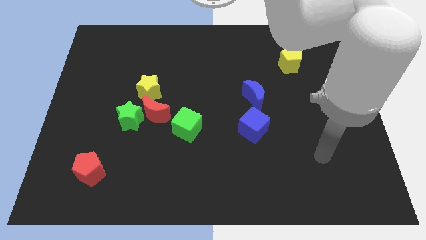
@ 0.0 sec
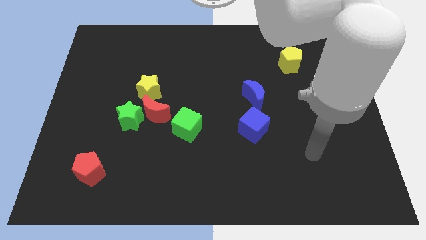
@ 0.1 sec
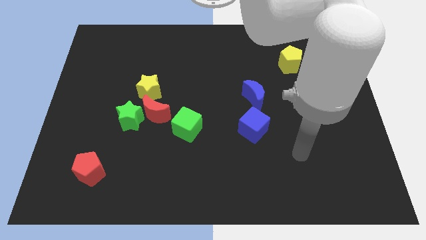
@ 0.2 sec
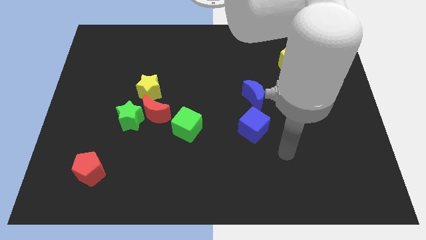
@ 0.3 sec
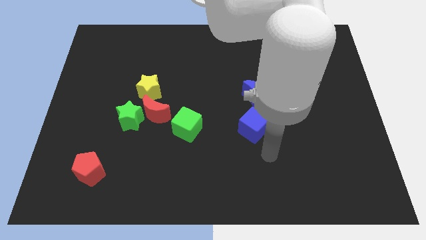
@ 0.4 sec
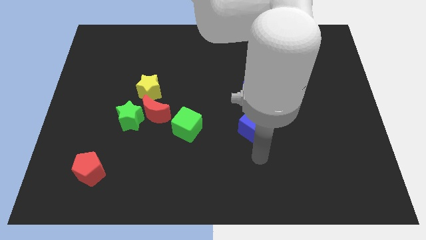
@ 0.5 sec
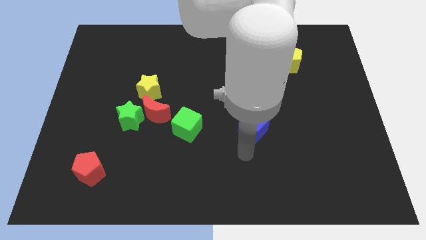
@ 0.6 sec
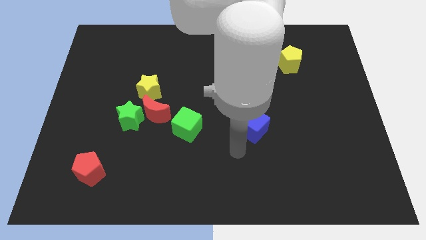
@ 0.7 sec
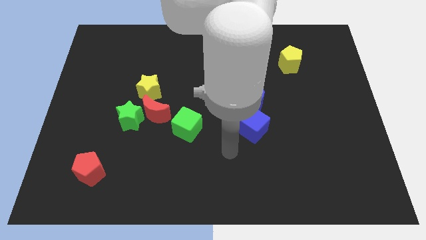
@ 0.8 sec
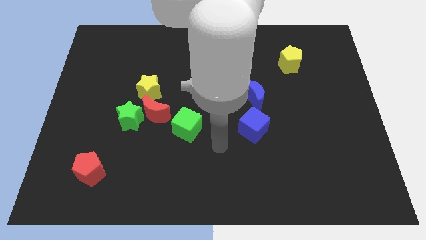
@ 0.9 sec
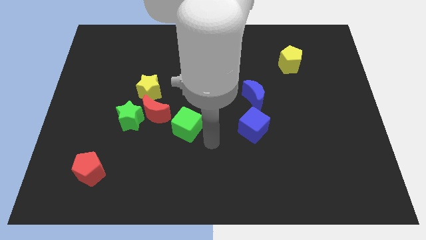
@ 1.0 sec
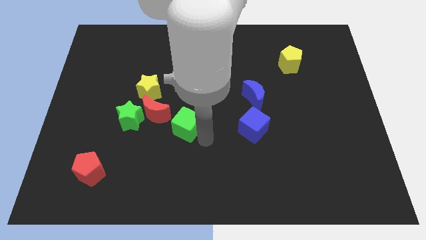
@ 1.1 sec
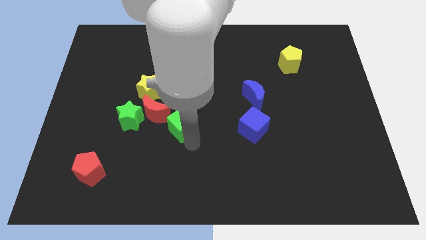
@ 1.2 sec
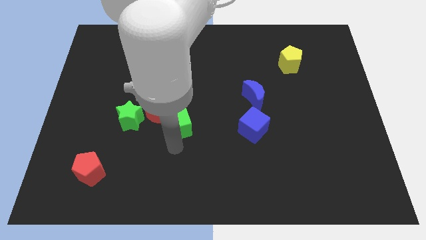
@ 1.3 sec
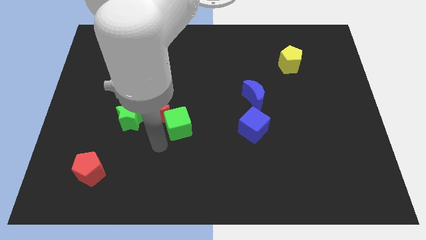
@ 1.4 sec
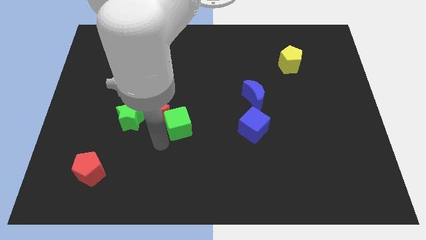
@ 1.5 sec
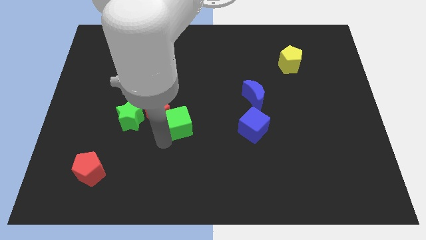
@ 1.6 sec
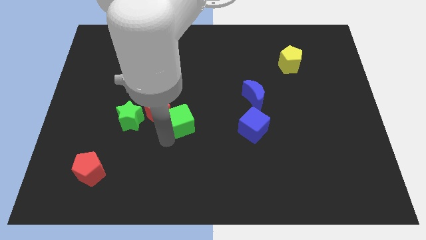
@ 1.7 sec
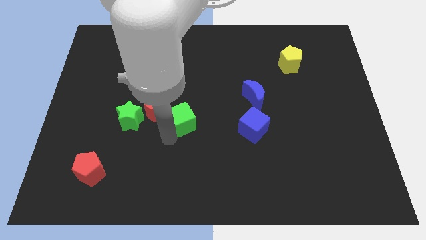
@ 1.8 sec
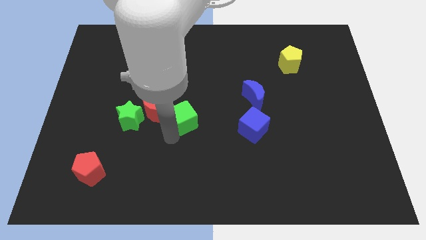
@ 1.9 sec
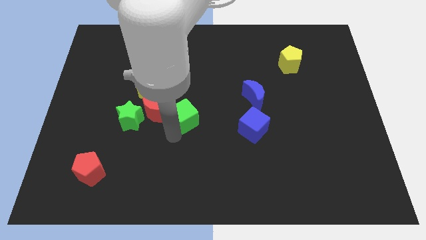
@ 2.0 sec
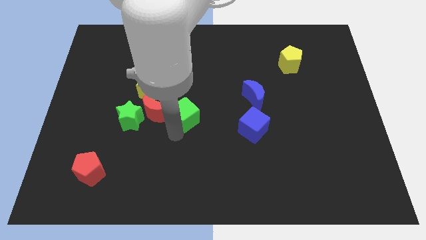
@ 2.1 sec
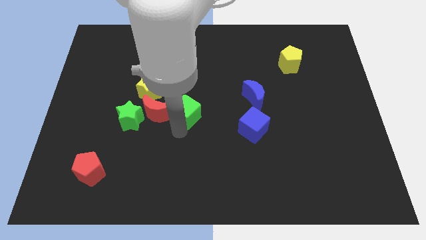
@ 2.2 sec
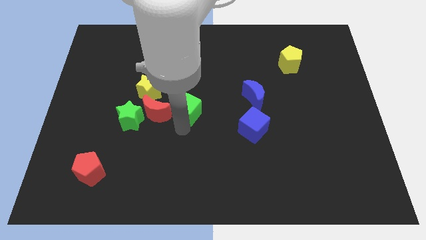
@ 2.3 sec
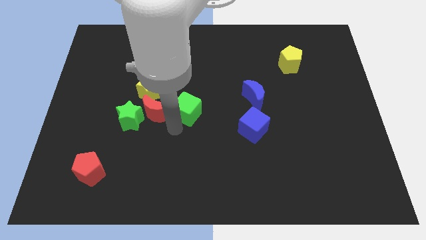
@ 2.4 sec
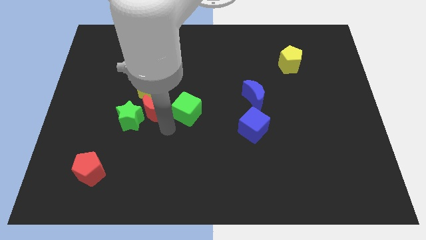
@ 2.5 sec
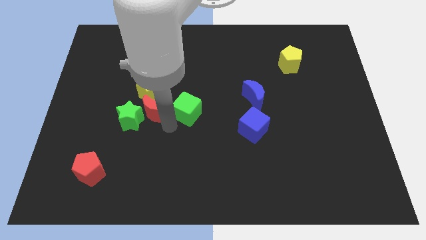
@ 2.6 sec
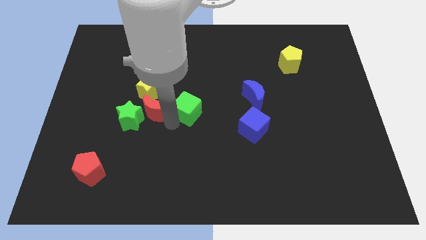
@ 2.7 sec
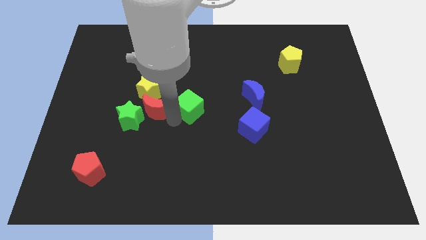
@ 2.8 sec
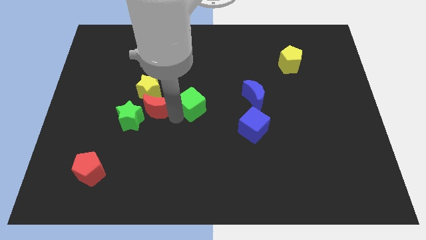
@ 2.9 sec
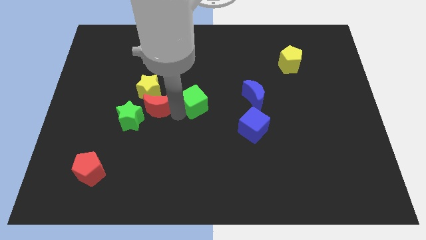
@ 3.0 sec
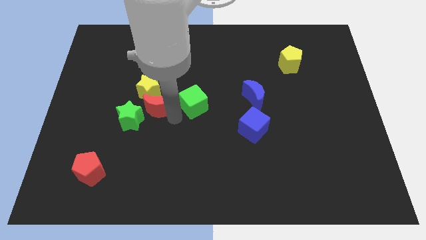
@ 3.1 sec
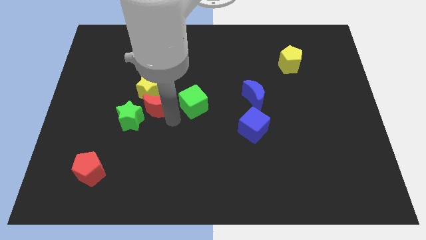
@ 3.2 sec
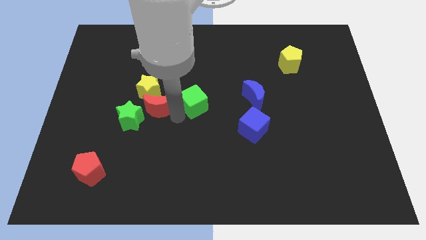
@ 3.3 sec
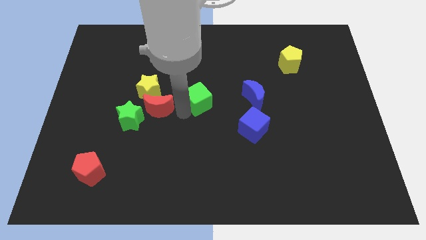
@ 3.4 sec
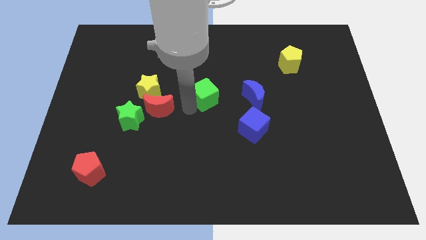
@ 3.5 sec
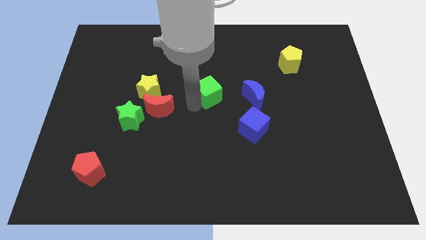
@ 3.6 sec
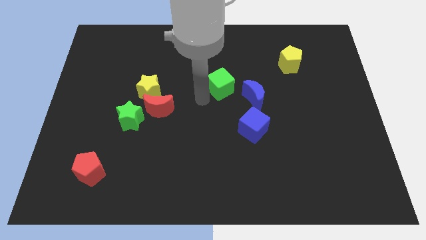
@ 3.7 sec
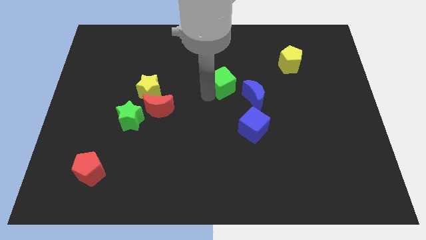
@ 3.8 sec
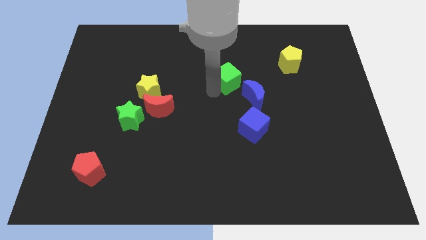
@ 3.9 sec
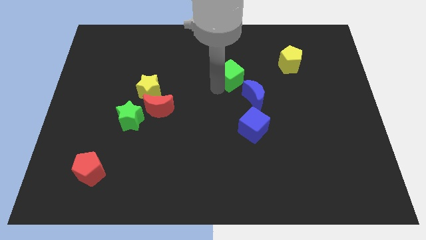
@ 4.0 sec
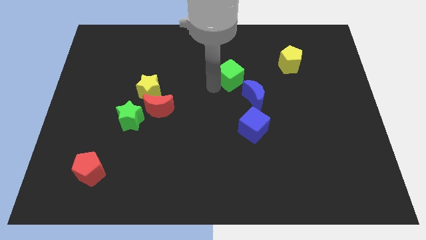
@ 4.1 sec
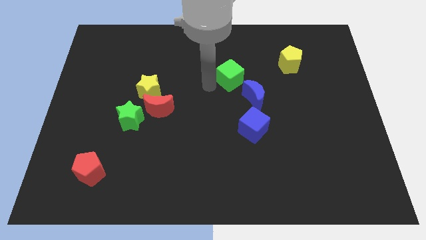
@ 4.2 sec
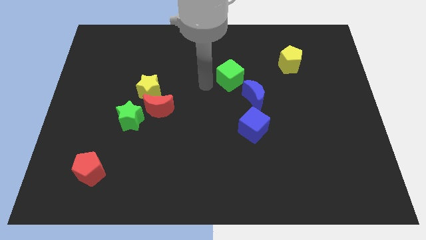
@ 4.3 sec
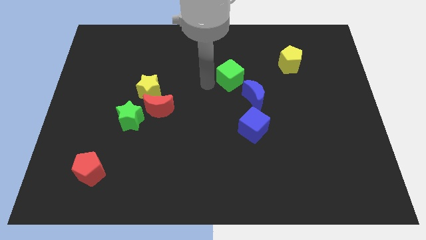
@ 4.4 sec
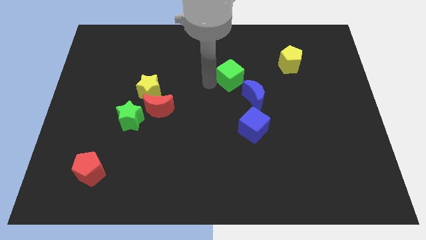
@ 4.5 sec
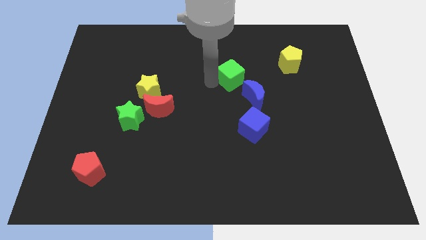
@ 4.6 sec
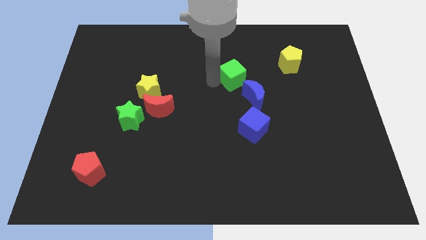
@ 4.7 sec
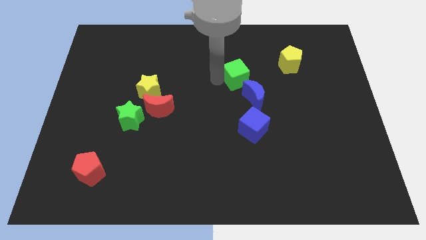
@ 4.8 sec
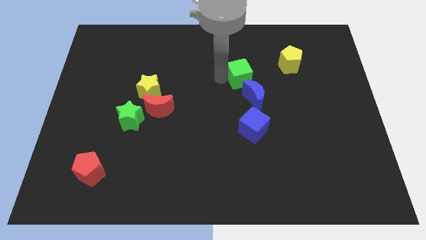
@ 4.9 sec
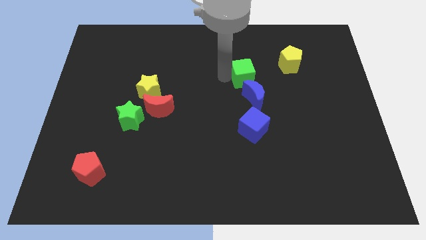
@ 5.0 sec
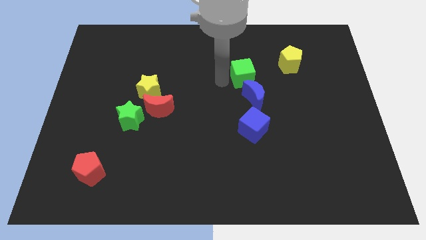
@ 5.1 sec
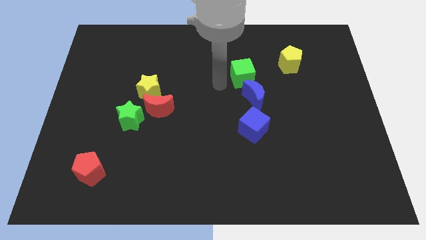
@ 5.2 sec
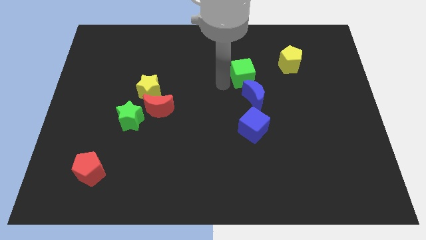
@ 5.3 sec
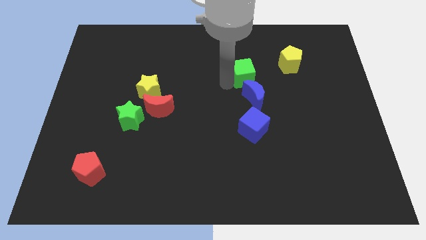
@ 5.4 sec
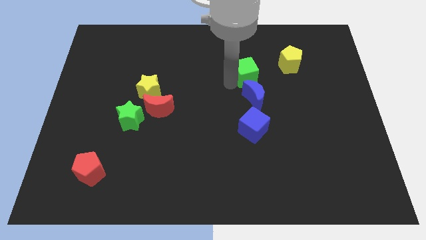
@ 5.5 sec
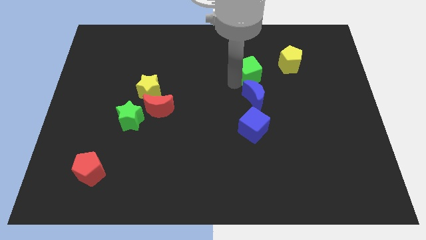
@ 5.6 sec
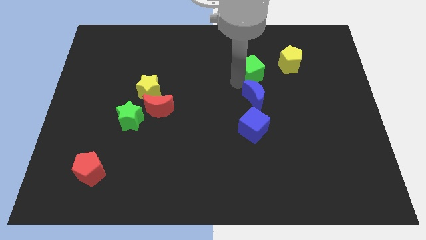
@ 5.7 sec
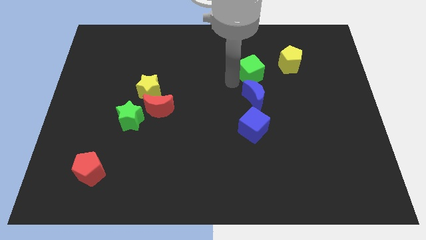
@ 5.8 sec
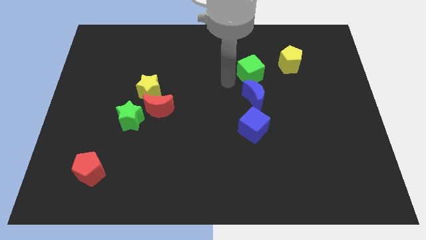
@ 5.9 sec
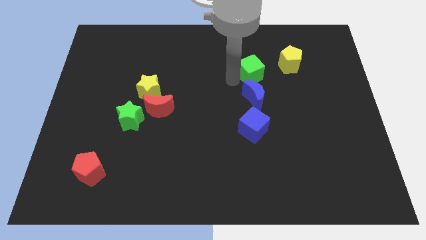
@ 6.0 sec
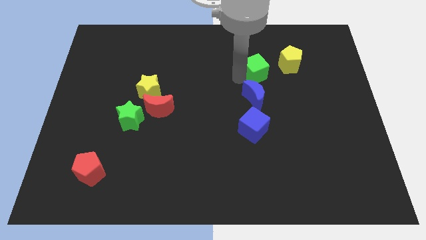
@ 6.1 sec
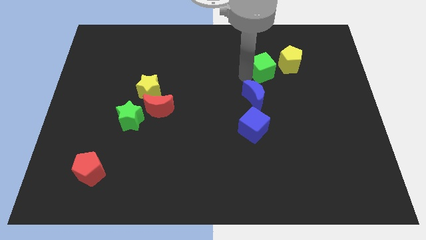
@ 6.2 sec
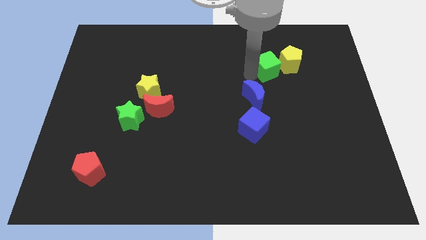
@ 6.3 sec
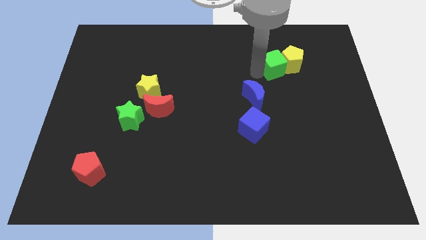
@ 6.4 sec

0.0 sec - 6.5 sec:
push the green cube towards the yellow pentagon
